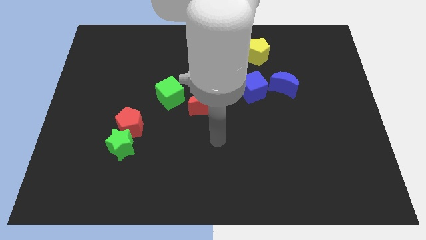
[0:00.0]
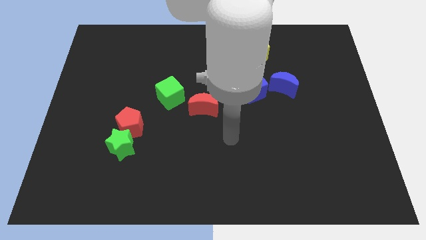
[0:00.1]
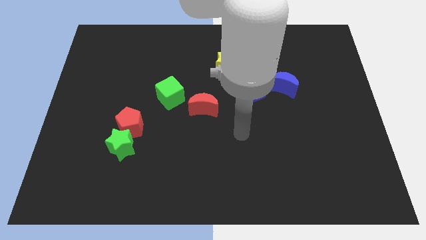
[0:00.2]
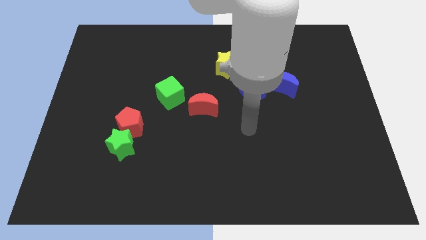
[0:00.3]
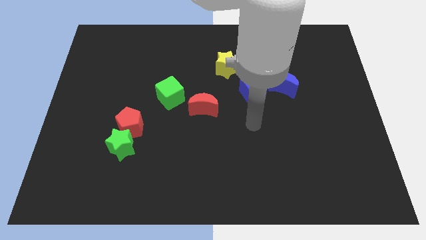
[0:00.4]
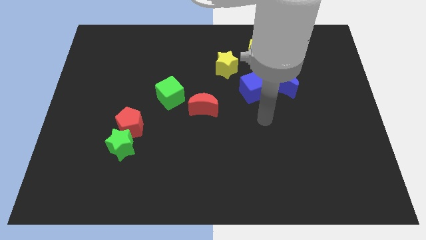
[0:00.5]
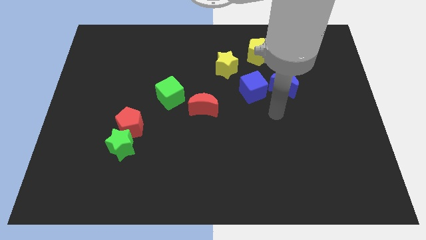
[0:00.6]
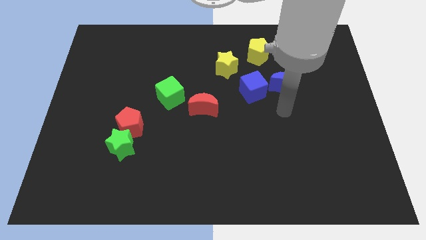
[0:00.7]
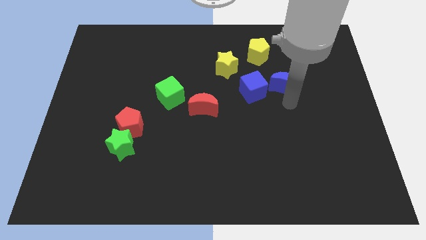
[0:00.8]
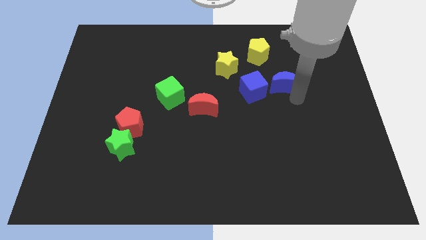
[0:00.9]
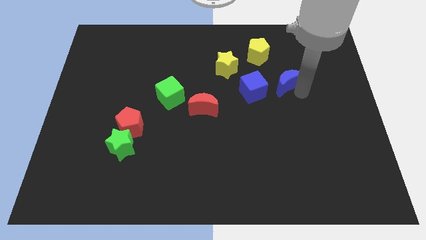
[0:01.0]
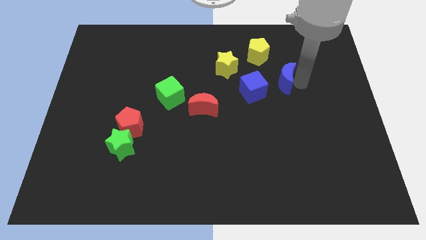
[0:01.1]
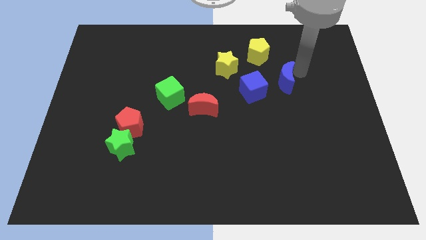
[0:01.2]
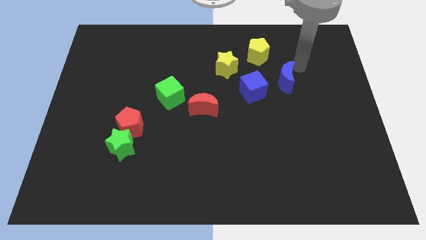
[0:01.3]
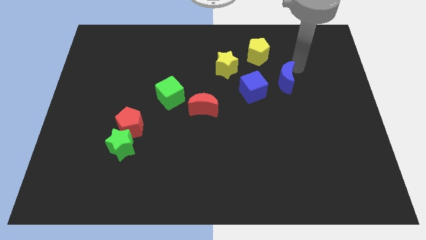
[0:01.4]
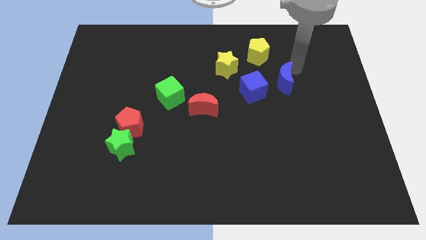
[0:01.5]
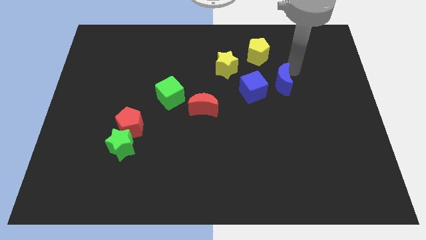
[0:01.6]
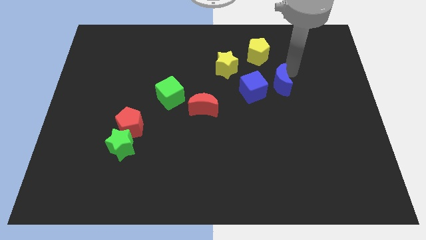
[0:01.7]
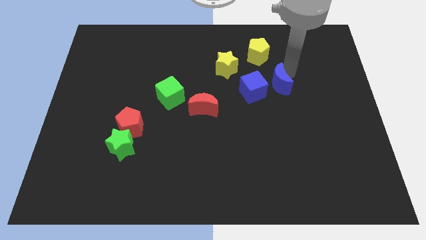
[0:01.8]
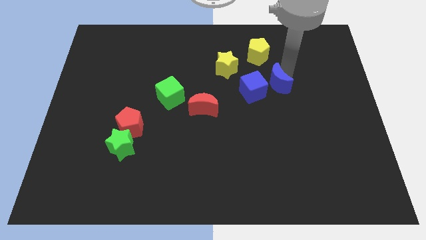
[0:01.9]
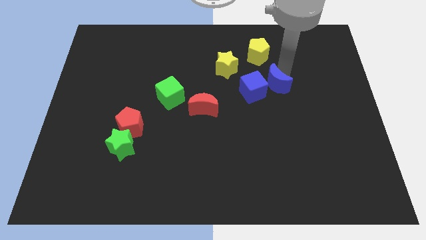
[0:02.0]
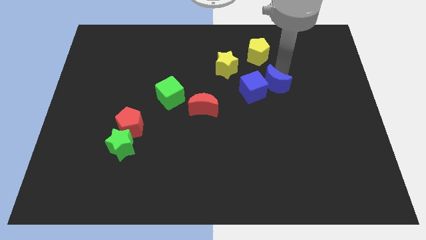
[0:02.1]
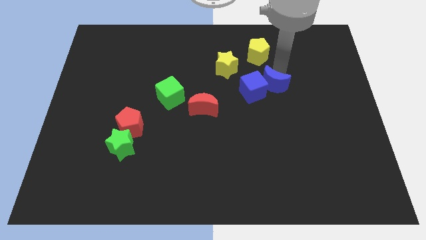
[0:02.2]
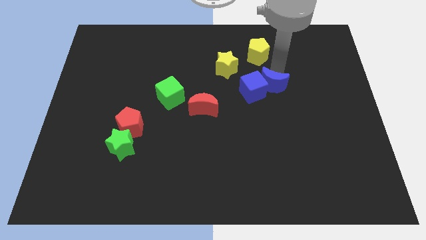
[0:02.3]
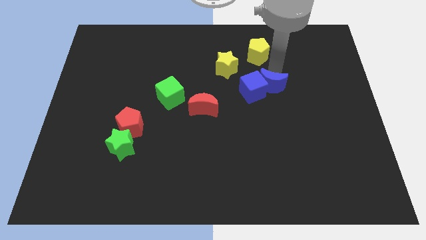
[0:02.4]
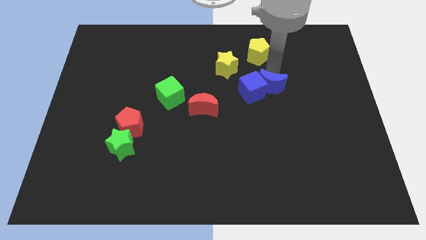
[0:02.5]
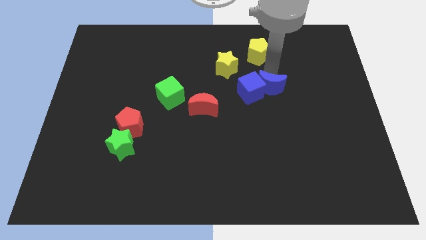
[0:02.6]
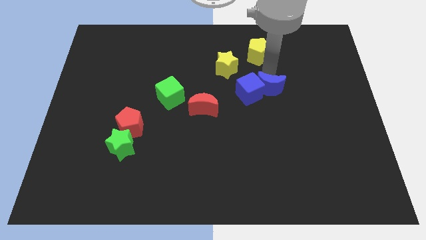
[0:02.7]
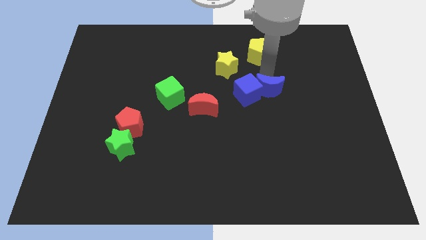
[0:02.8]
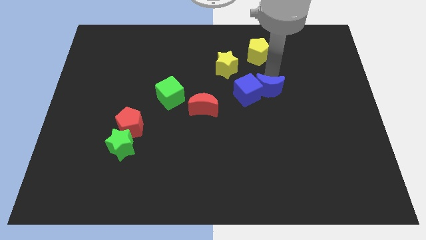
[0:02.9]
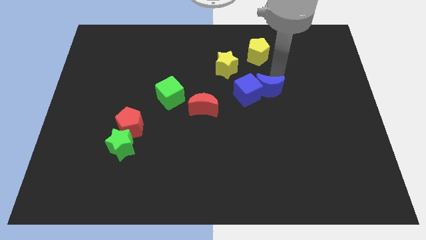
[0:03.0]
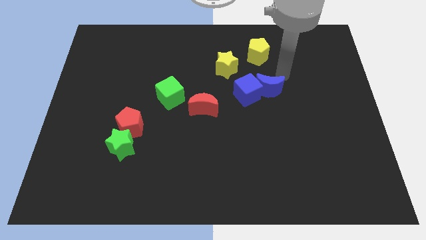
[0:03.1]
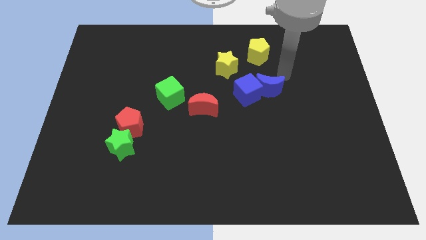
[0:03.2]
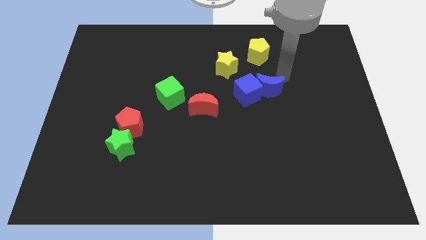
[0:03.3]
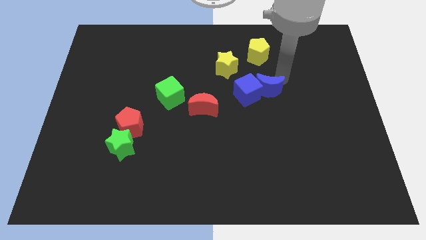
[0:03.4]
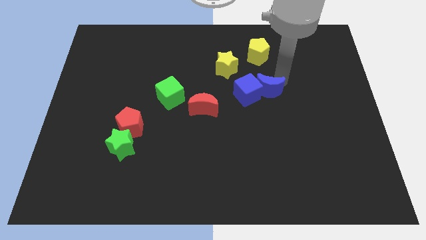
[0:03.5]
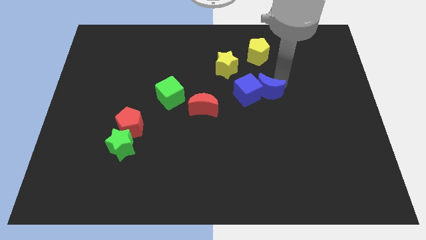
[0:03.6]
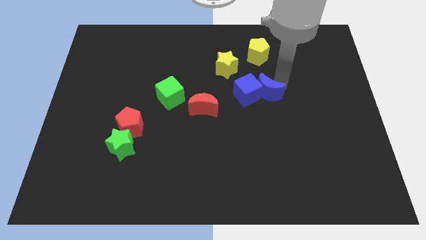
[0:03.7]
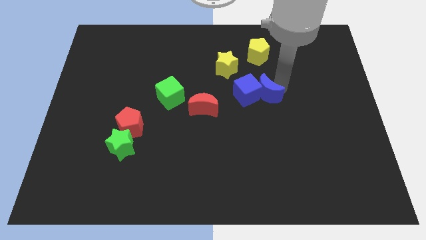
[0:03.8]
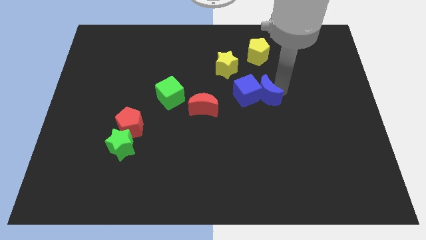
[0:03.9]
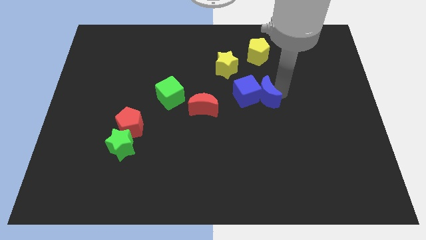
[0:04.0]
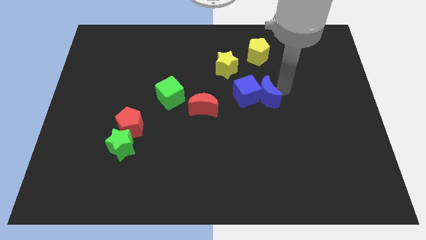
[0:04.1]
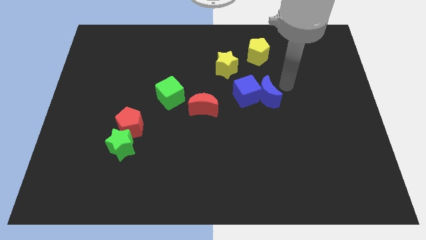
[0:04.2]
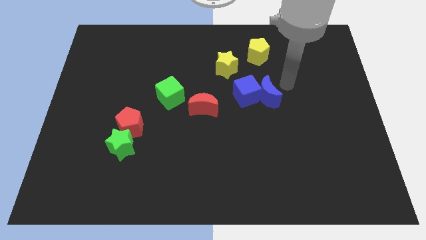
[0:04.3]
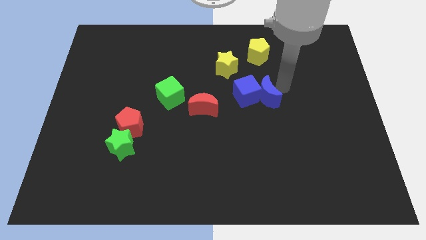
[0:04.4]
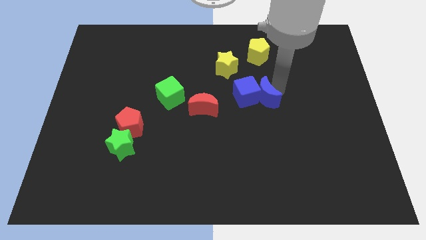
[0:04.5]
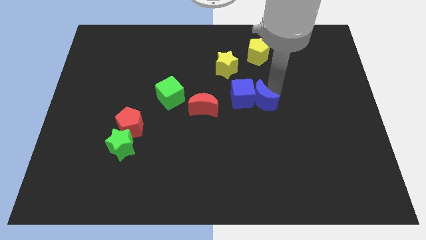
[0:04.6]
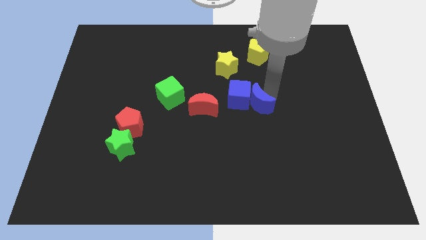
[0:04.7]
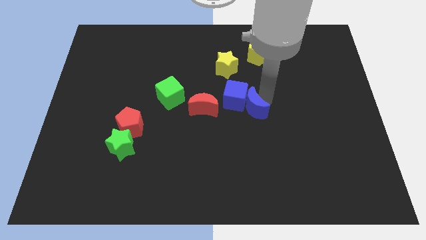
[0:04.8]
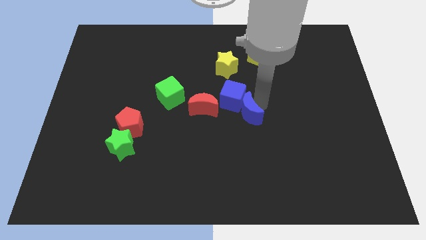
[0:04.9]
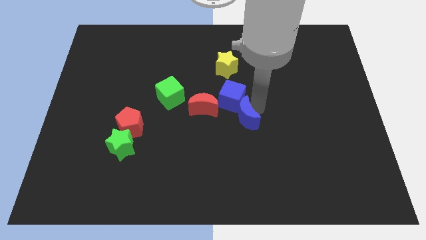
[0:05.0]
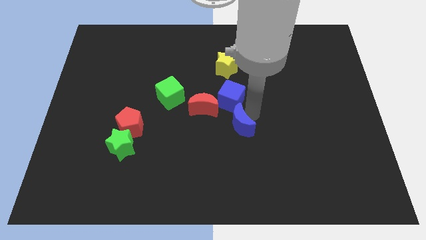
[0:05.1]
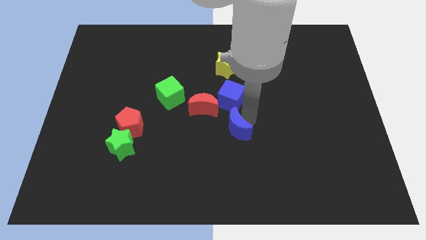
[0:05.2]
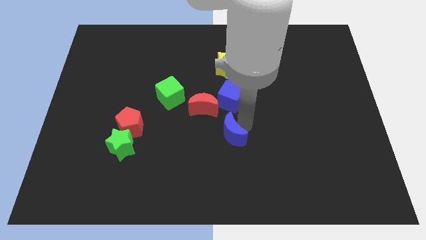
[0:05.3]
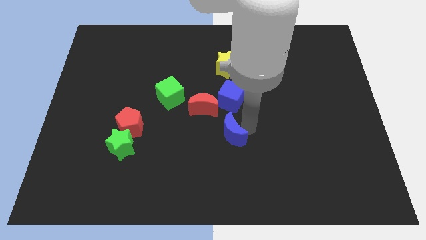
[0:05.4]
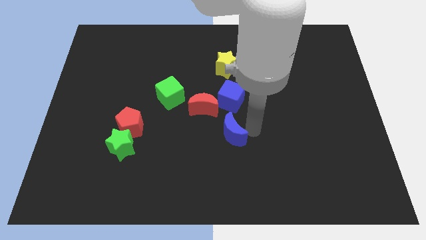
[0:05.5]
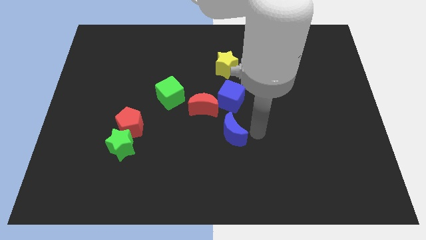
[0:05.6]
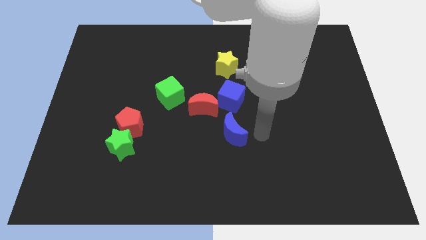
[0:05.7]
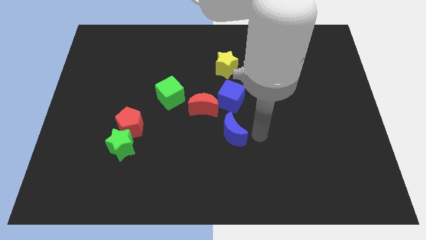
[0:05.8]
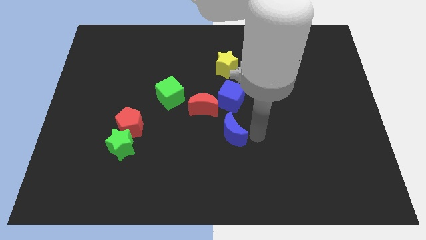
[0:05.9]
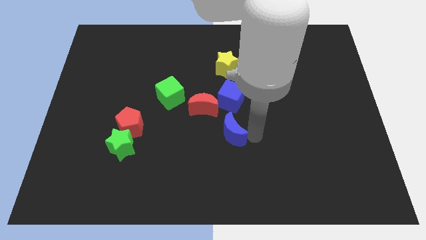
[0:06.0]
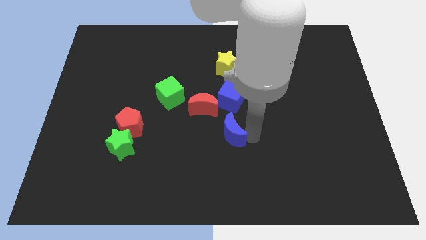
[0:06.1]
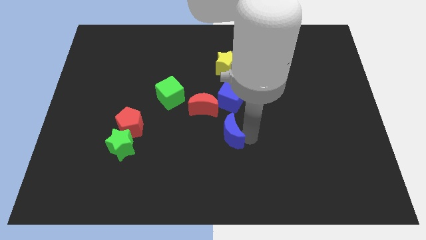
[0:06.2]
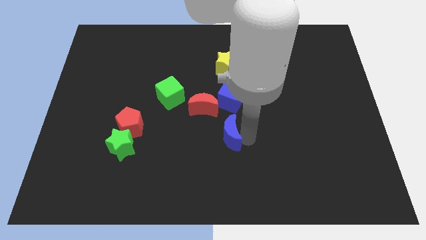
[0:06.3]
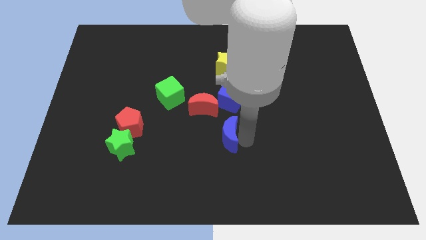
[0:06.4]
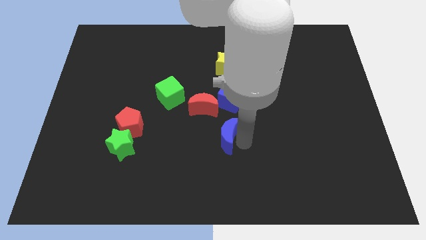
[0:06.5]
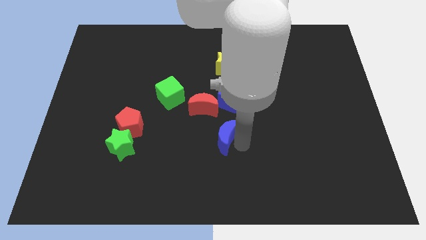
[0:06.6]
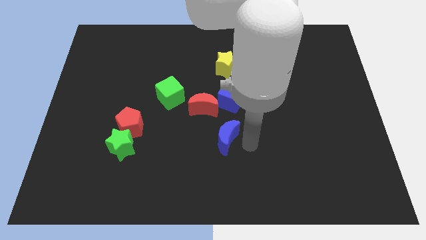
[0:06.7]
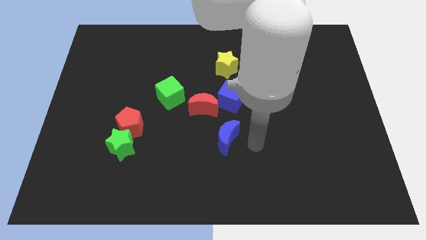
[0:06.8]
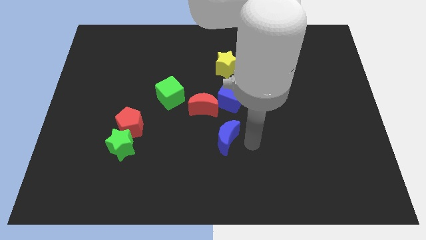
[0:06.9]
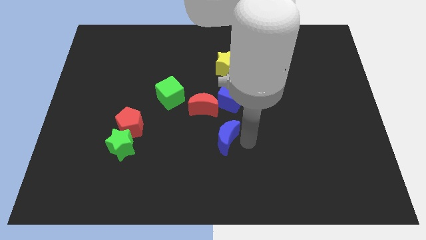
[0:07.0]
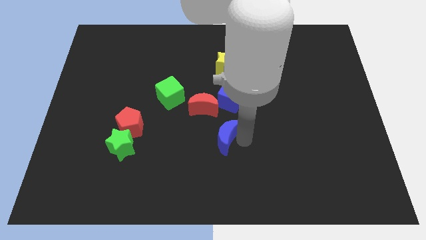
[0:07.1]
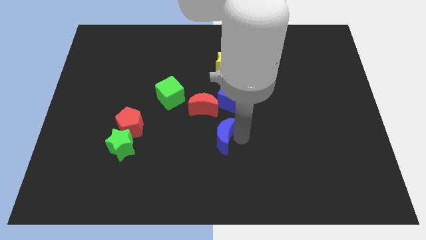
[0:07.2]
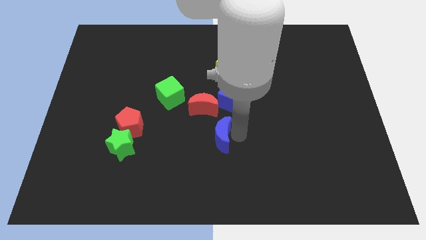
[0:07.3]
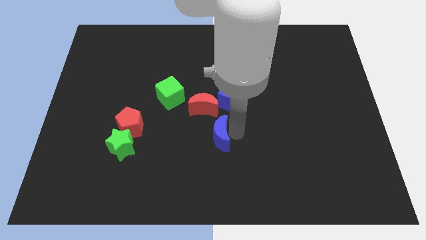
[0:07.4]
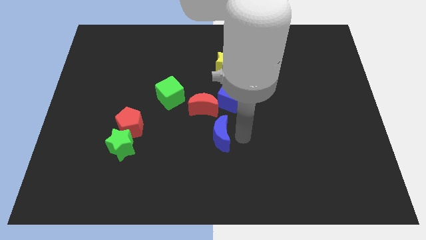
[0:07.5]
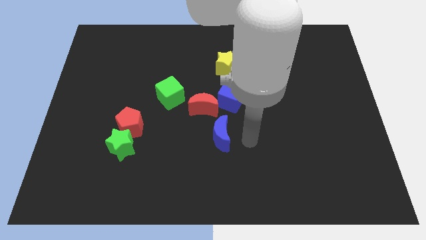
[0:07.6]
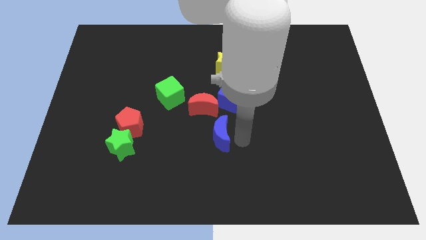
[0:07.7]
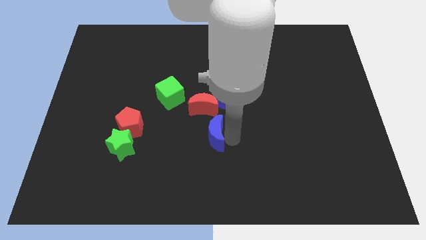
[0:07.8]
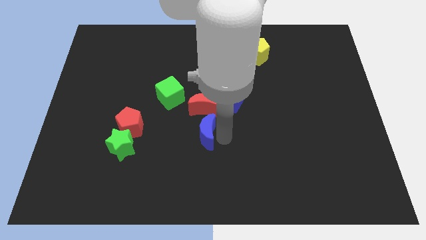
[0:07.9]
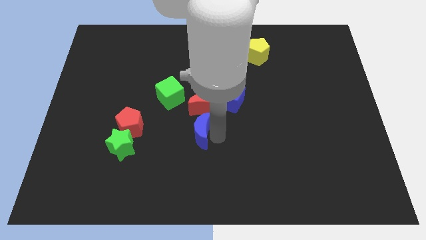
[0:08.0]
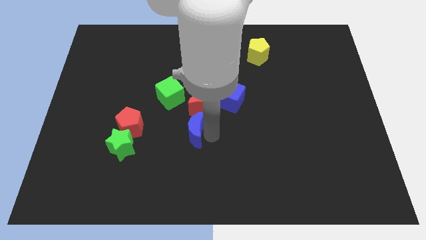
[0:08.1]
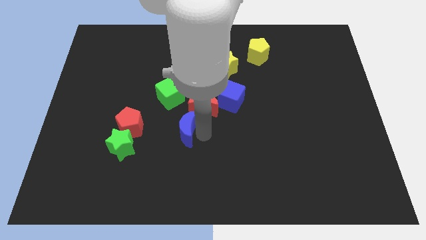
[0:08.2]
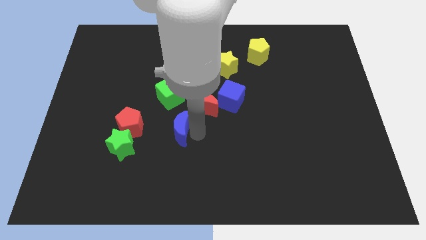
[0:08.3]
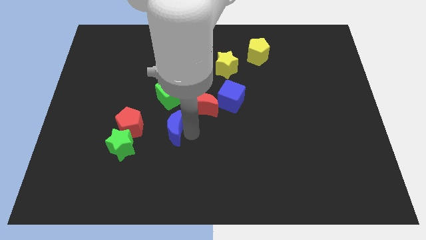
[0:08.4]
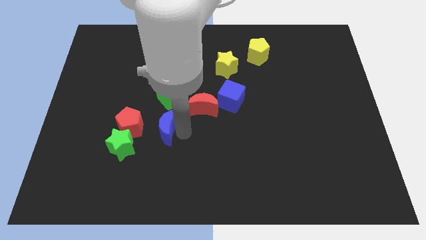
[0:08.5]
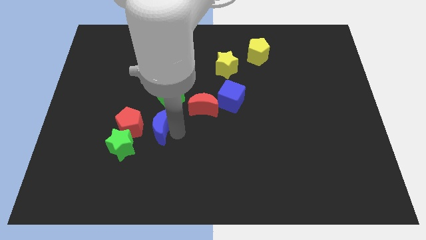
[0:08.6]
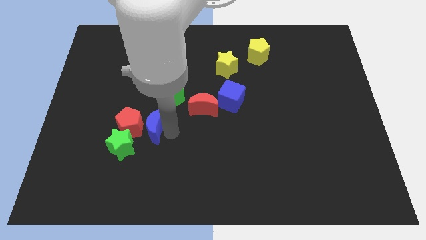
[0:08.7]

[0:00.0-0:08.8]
push the blue moon to the red pentagon
